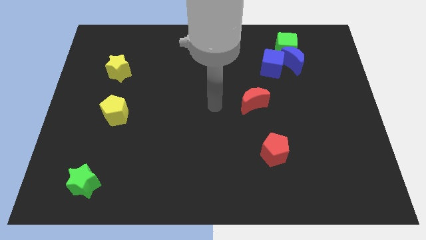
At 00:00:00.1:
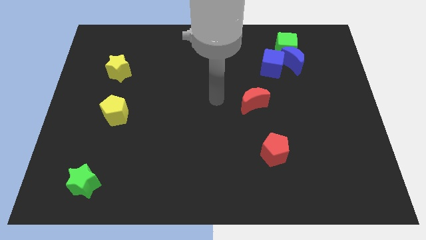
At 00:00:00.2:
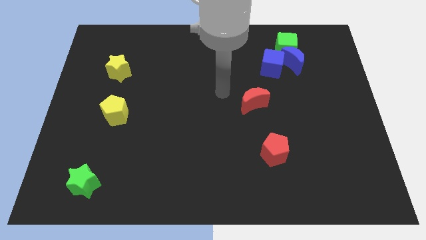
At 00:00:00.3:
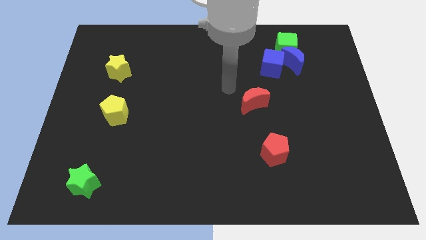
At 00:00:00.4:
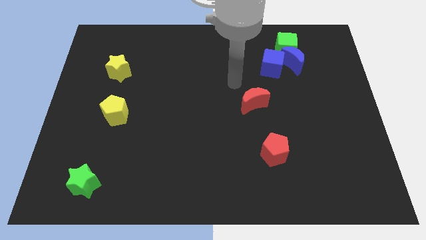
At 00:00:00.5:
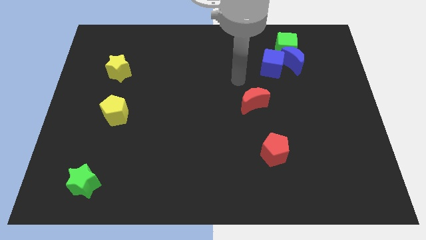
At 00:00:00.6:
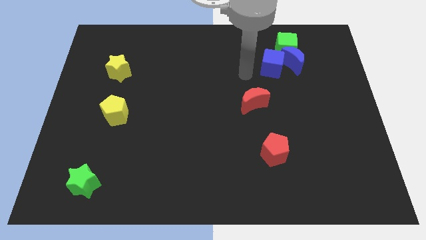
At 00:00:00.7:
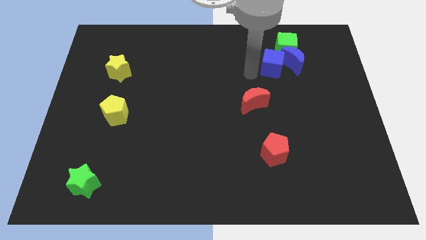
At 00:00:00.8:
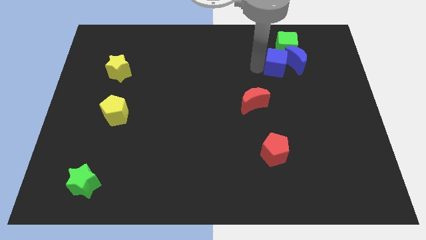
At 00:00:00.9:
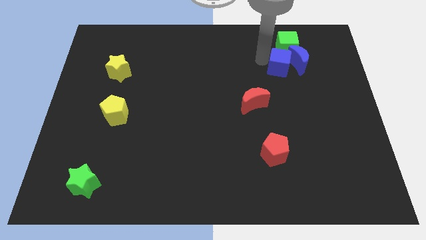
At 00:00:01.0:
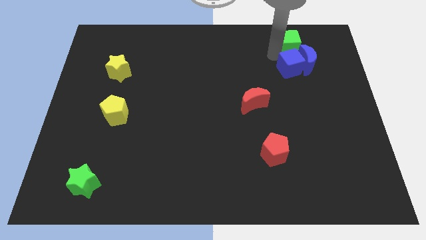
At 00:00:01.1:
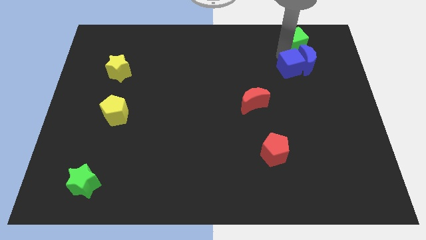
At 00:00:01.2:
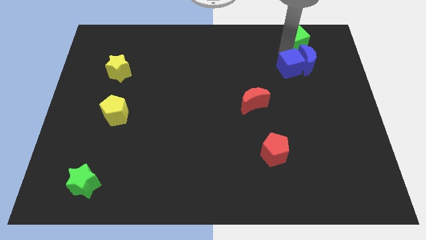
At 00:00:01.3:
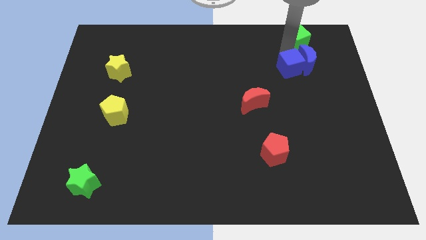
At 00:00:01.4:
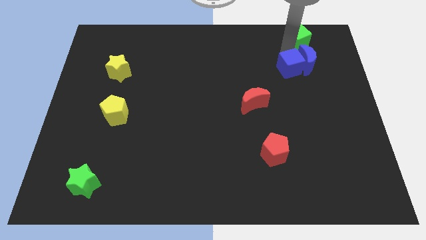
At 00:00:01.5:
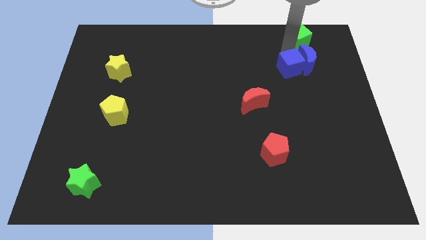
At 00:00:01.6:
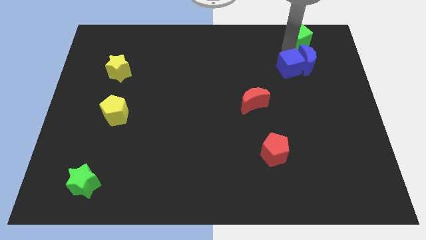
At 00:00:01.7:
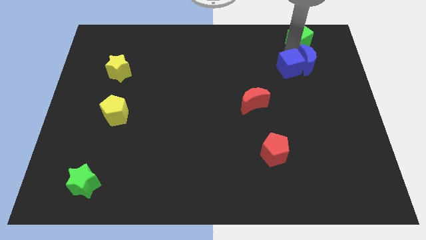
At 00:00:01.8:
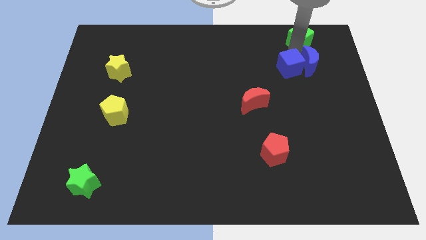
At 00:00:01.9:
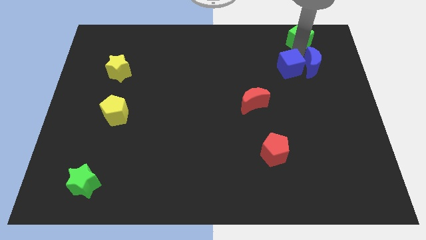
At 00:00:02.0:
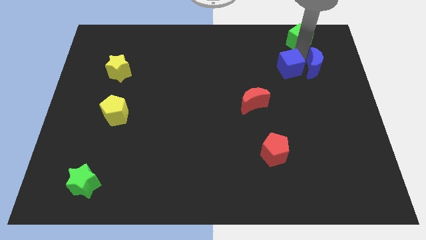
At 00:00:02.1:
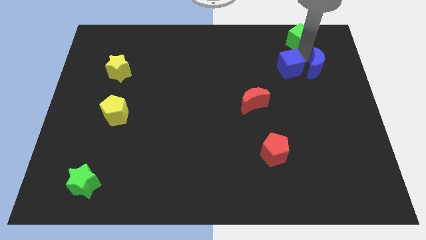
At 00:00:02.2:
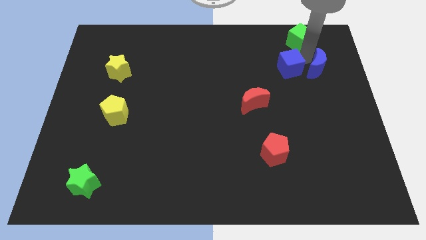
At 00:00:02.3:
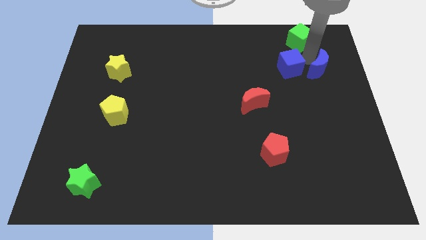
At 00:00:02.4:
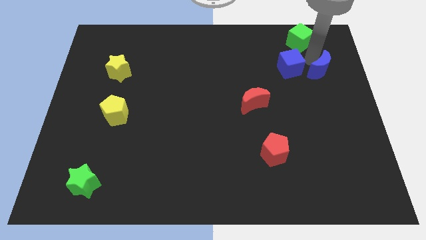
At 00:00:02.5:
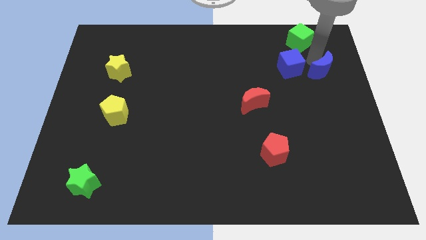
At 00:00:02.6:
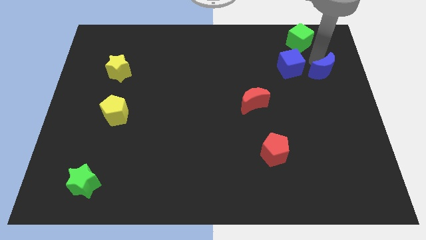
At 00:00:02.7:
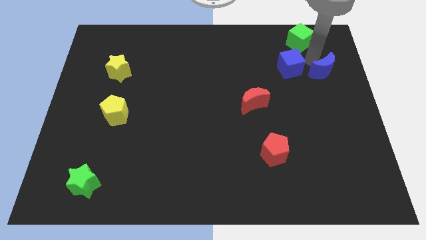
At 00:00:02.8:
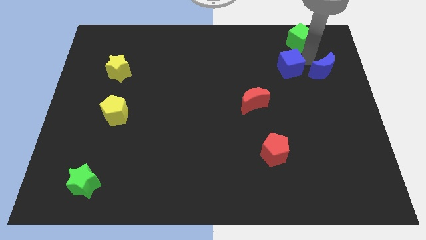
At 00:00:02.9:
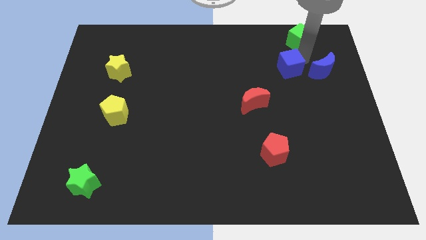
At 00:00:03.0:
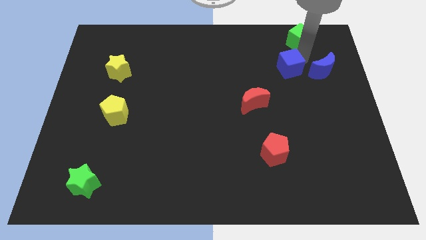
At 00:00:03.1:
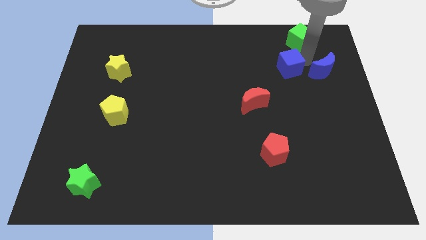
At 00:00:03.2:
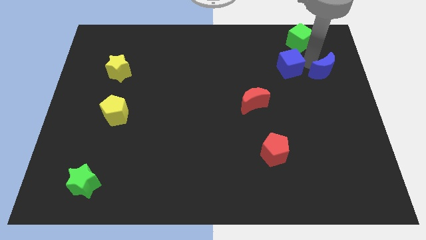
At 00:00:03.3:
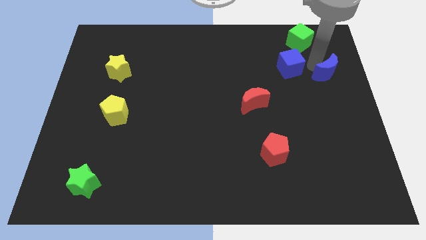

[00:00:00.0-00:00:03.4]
pull the blue moon apart from the green cube and blue cube

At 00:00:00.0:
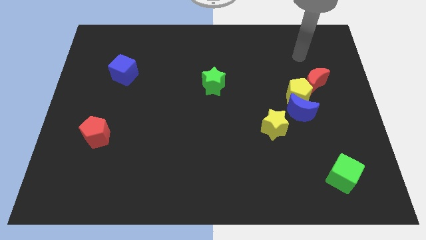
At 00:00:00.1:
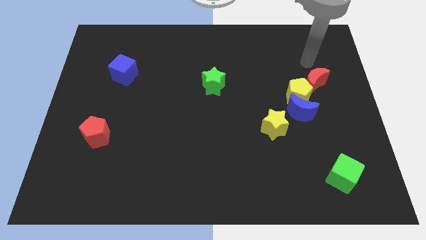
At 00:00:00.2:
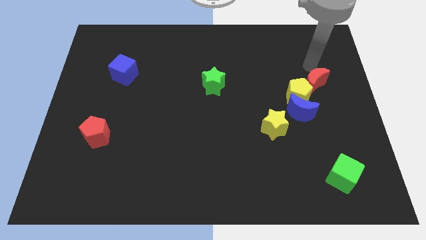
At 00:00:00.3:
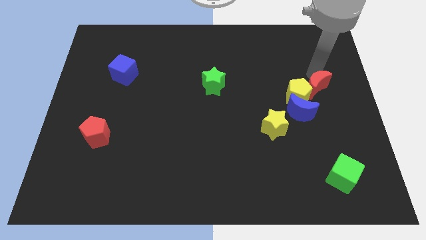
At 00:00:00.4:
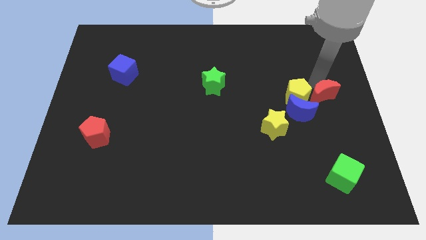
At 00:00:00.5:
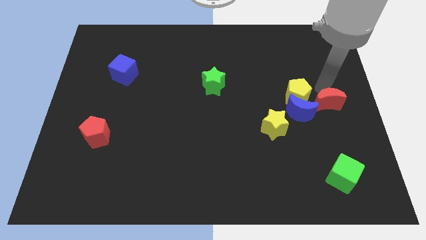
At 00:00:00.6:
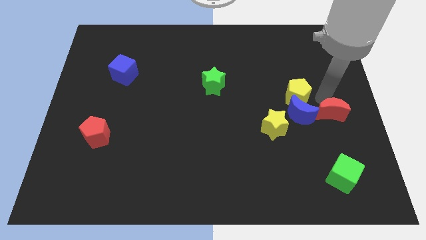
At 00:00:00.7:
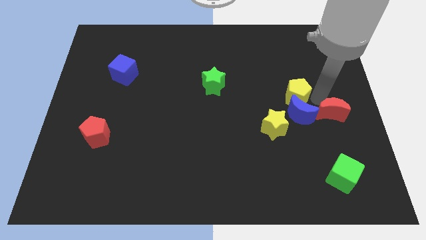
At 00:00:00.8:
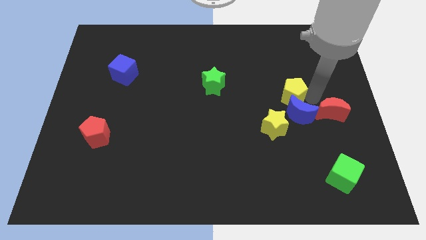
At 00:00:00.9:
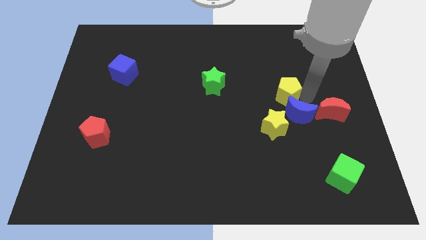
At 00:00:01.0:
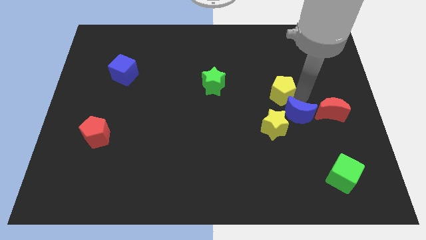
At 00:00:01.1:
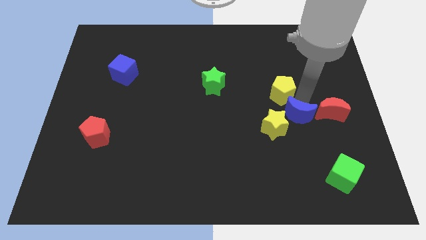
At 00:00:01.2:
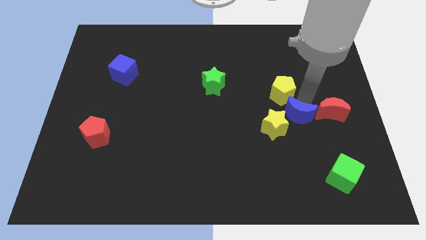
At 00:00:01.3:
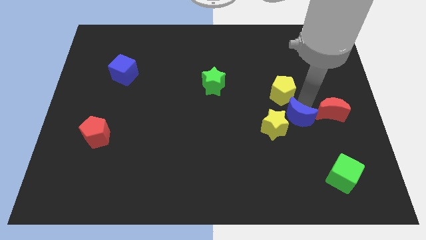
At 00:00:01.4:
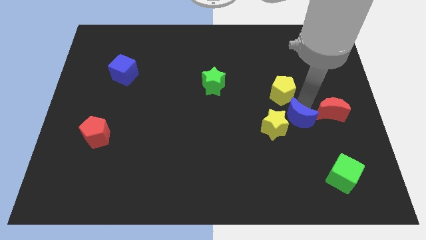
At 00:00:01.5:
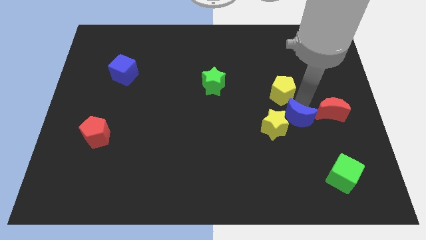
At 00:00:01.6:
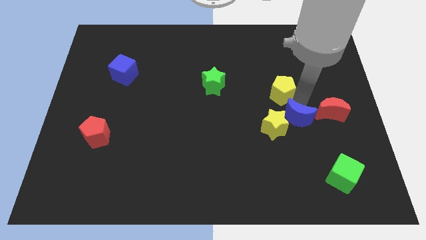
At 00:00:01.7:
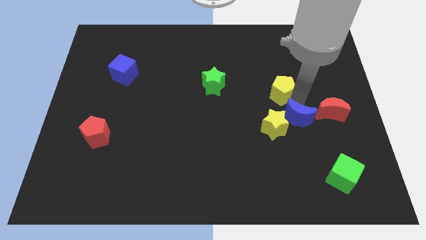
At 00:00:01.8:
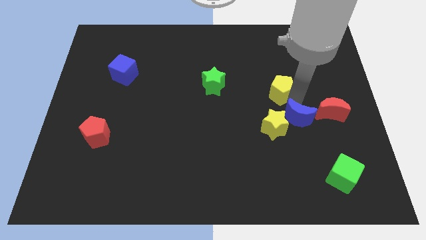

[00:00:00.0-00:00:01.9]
separate the yellow pentagon from the blue moon and red moon

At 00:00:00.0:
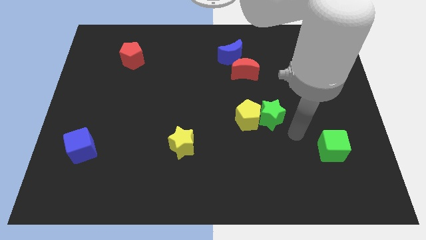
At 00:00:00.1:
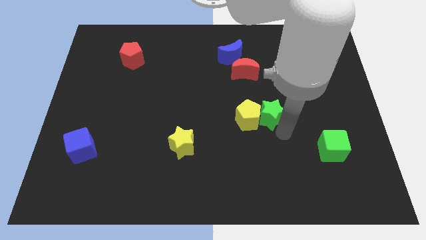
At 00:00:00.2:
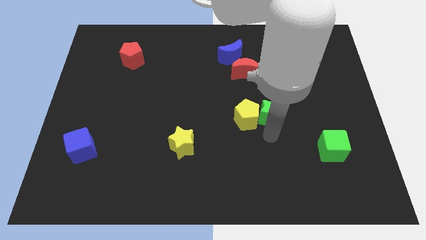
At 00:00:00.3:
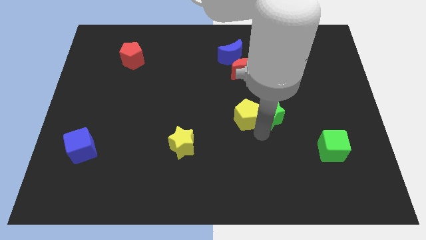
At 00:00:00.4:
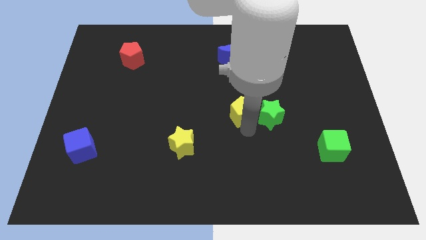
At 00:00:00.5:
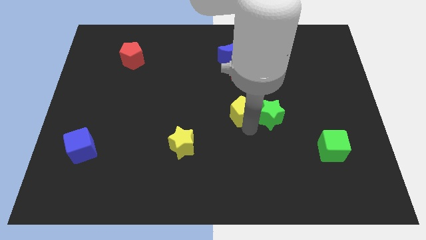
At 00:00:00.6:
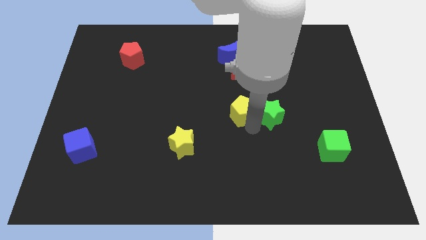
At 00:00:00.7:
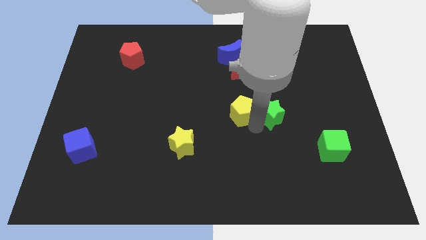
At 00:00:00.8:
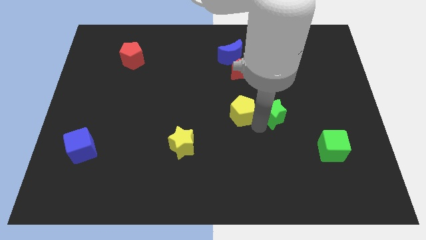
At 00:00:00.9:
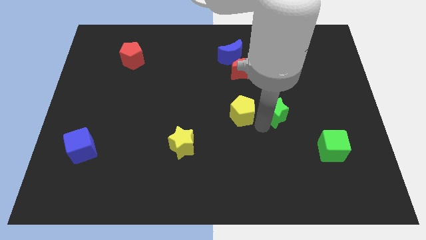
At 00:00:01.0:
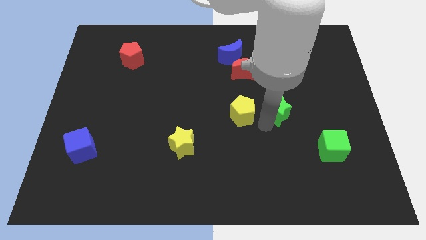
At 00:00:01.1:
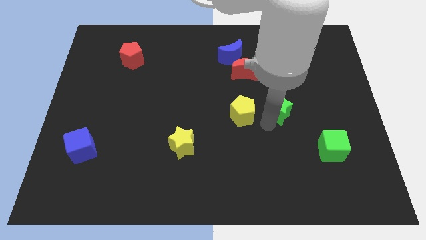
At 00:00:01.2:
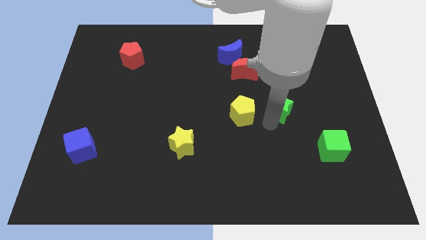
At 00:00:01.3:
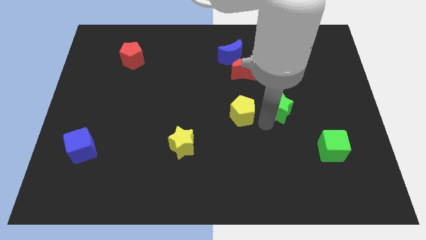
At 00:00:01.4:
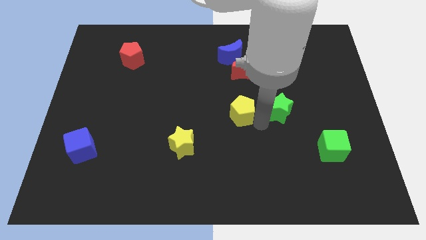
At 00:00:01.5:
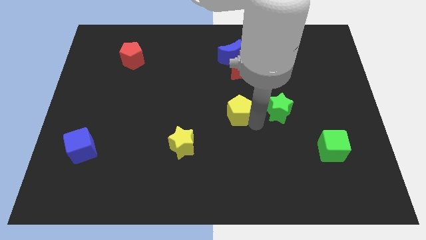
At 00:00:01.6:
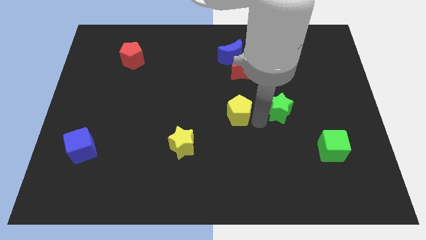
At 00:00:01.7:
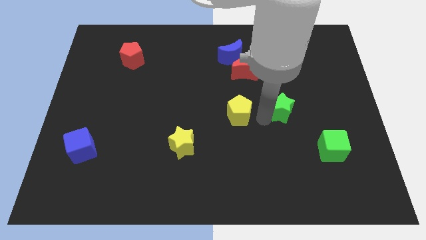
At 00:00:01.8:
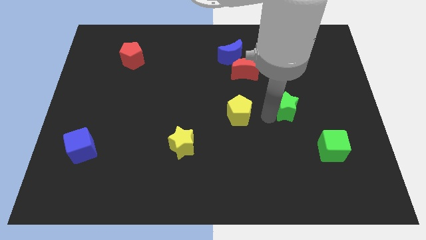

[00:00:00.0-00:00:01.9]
separate the green star from the yellow pentagon

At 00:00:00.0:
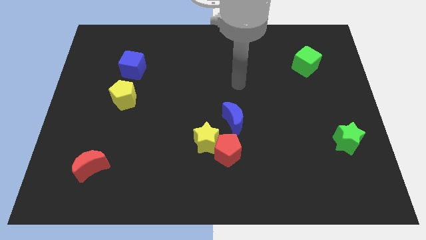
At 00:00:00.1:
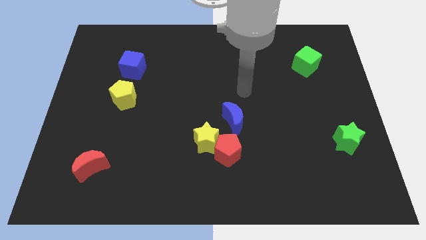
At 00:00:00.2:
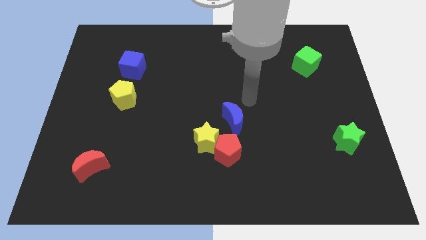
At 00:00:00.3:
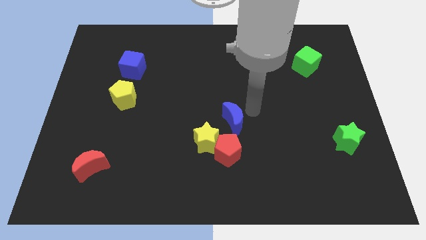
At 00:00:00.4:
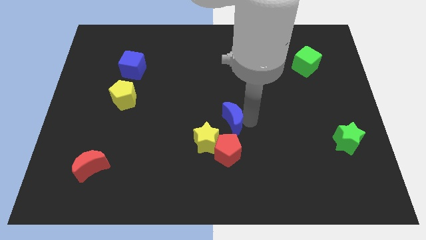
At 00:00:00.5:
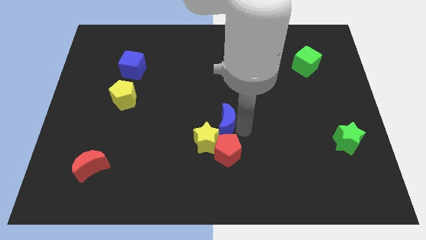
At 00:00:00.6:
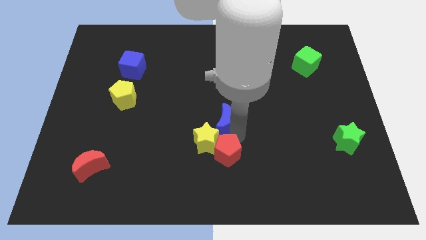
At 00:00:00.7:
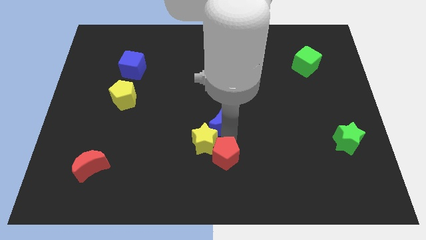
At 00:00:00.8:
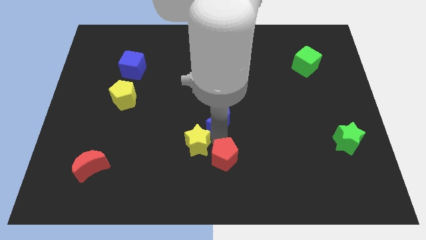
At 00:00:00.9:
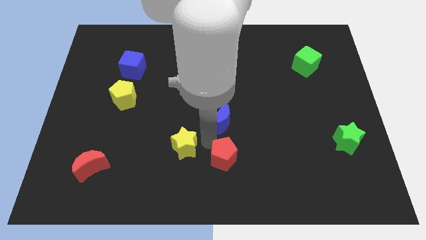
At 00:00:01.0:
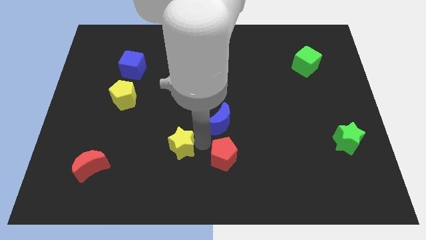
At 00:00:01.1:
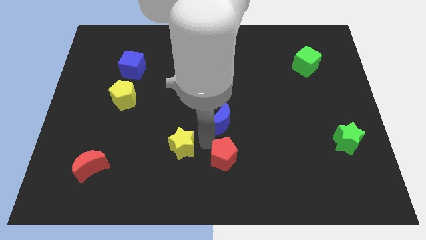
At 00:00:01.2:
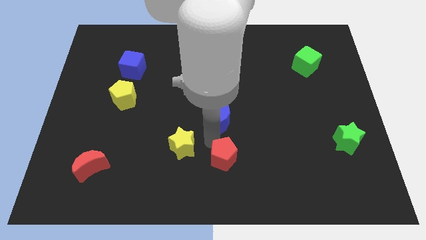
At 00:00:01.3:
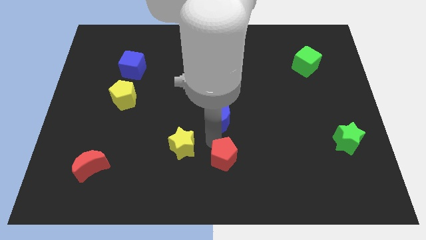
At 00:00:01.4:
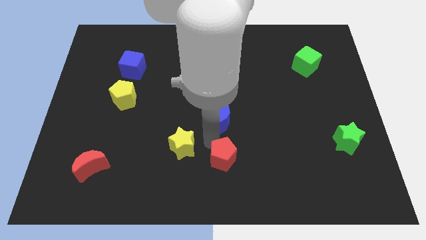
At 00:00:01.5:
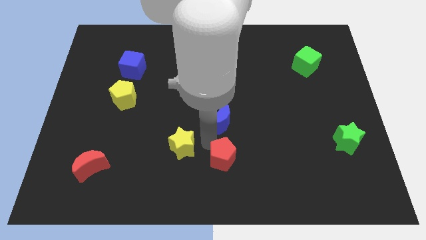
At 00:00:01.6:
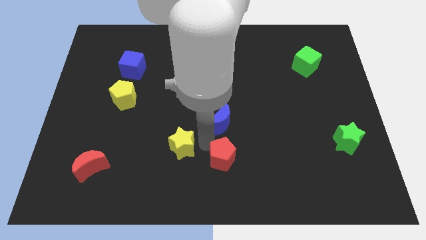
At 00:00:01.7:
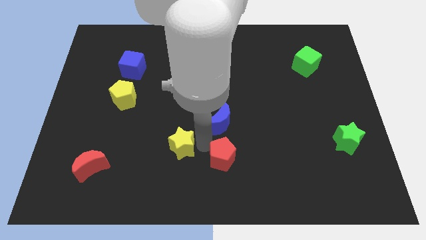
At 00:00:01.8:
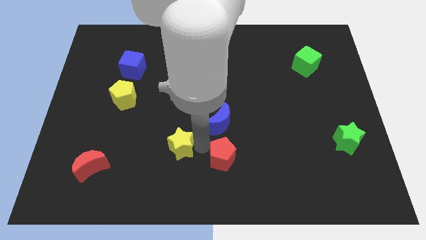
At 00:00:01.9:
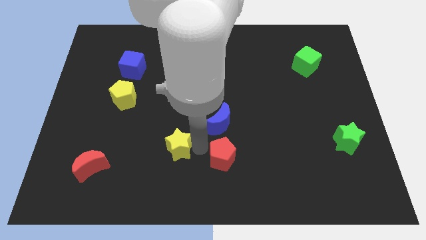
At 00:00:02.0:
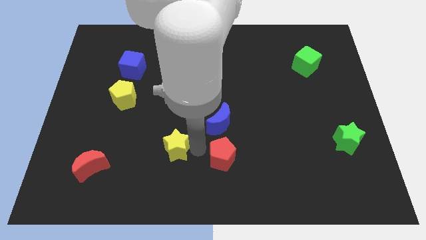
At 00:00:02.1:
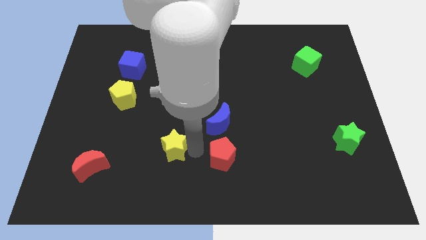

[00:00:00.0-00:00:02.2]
move the yellow star away from the red pentagon and blue moon
